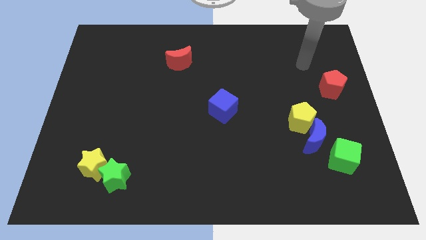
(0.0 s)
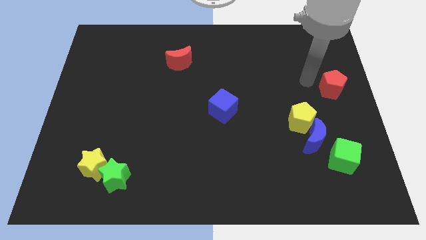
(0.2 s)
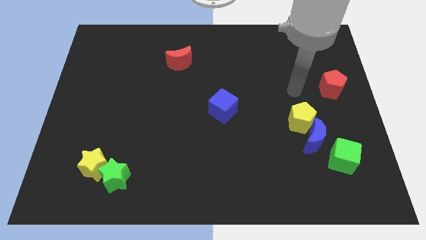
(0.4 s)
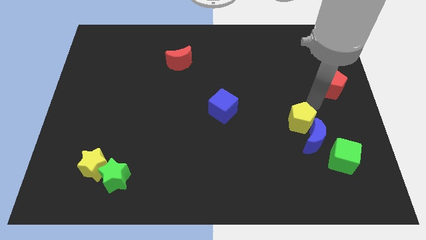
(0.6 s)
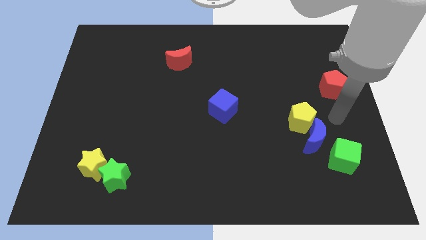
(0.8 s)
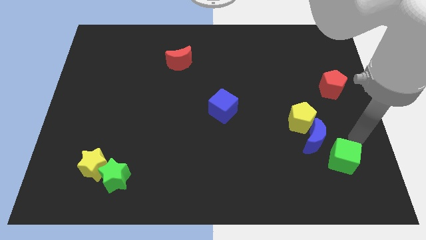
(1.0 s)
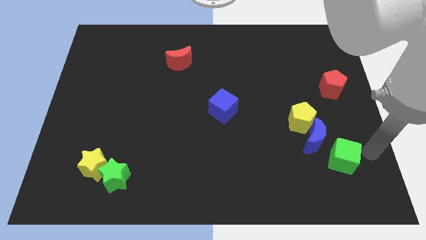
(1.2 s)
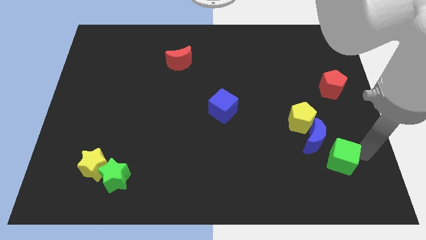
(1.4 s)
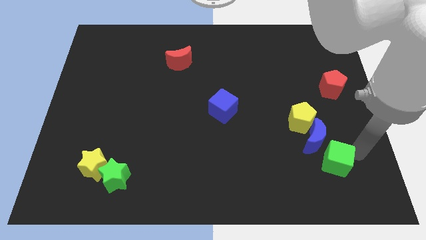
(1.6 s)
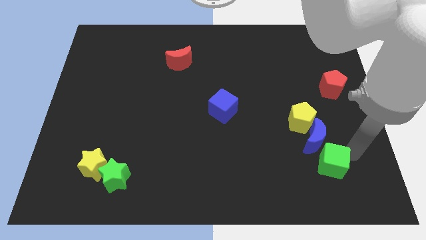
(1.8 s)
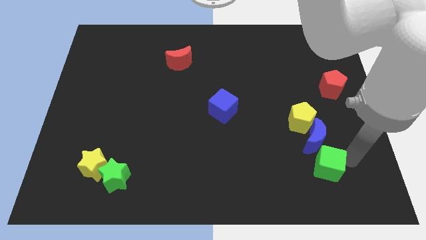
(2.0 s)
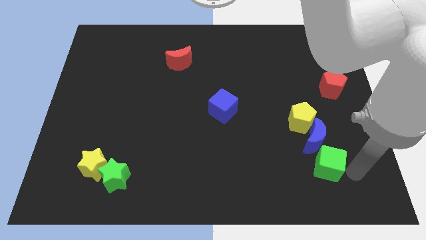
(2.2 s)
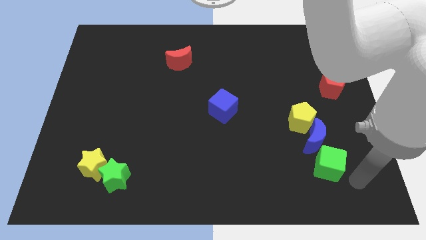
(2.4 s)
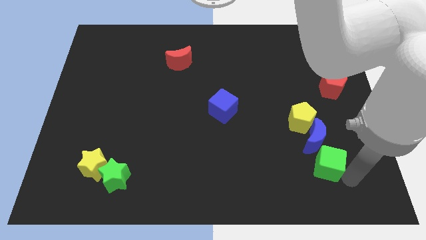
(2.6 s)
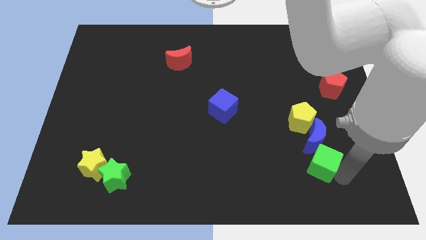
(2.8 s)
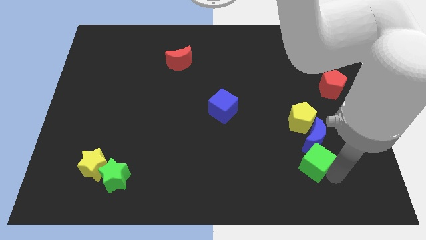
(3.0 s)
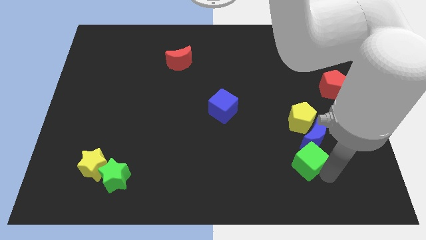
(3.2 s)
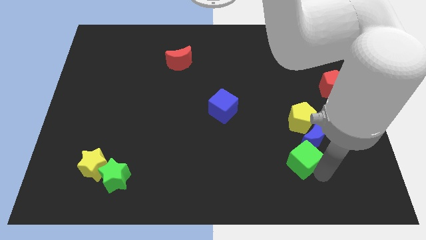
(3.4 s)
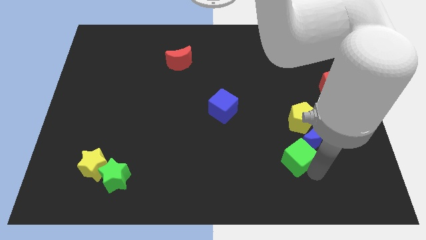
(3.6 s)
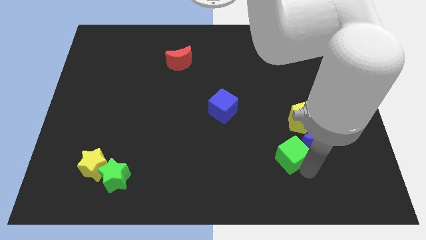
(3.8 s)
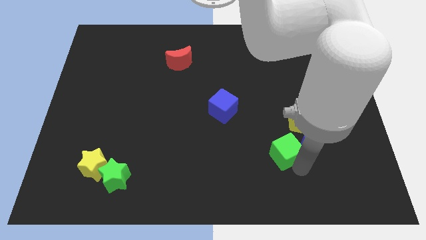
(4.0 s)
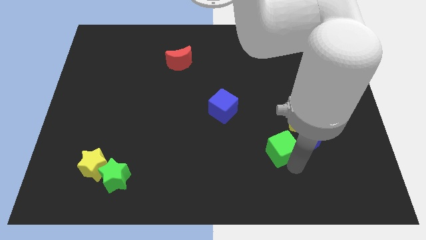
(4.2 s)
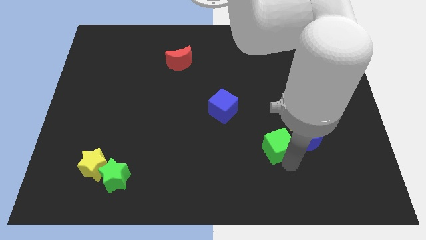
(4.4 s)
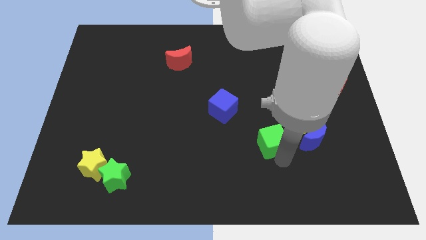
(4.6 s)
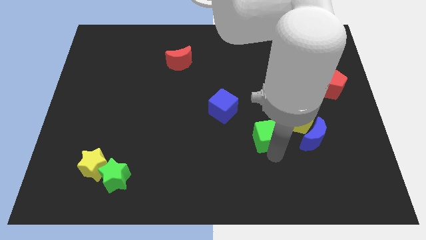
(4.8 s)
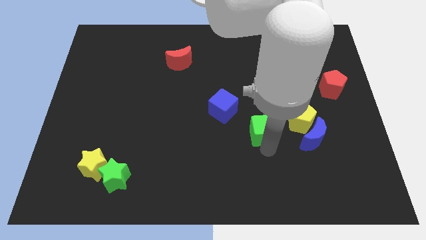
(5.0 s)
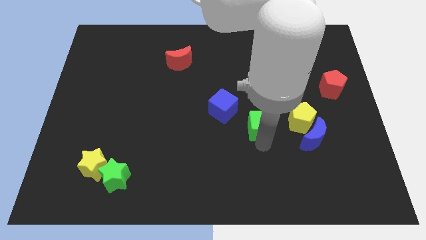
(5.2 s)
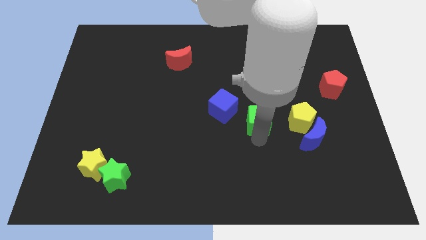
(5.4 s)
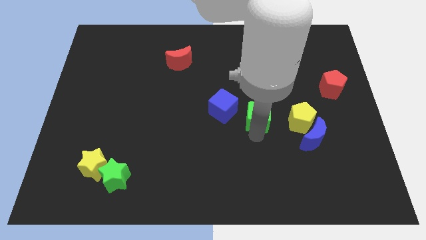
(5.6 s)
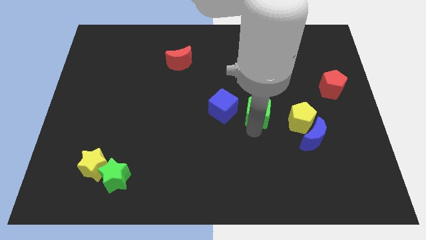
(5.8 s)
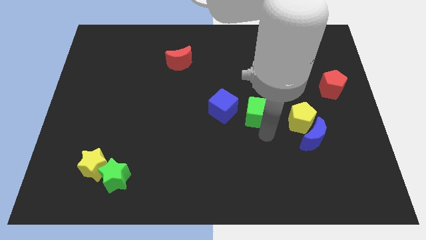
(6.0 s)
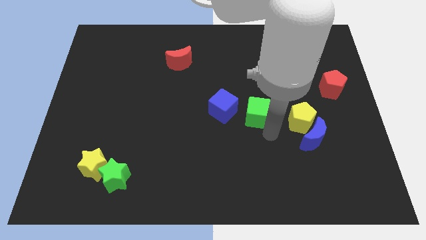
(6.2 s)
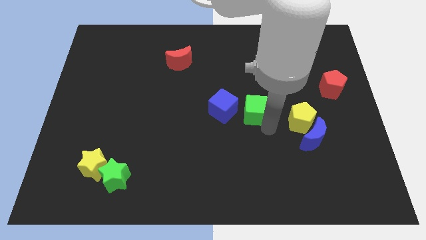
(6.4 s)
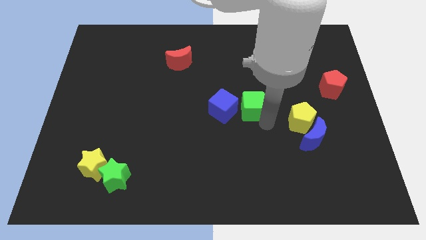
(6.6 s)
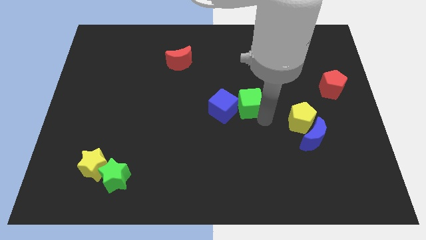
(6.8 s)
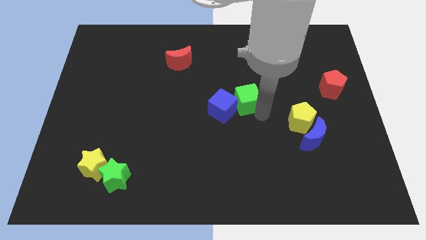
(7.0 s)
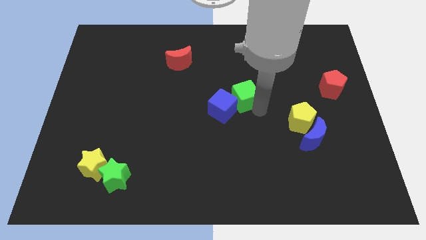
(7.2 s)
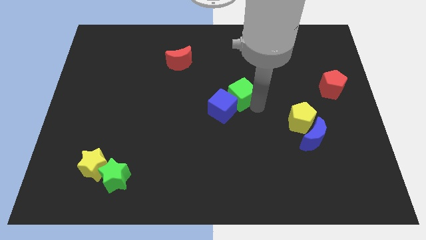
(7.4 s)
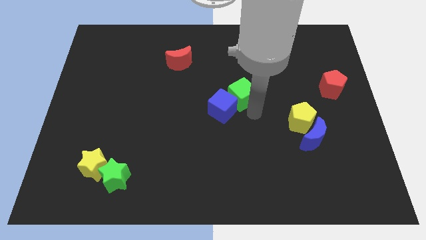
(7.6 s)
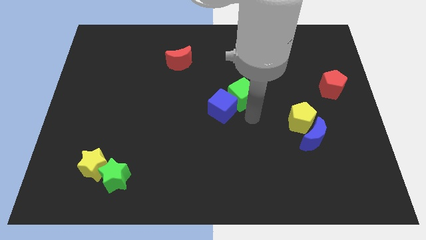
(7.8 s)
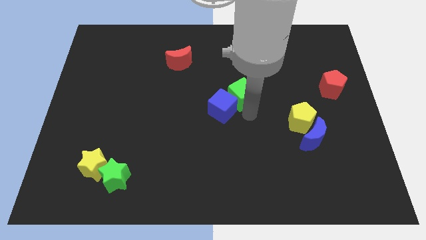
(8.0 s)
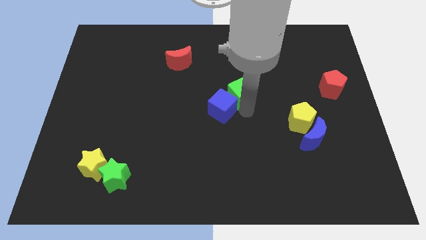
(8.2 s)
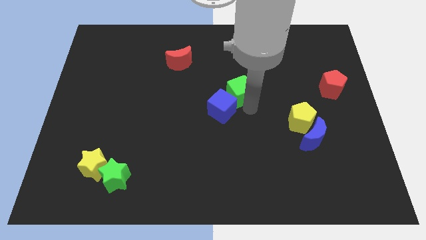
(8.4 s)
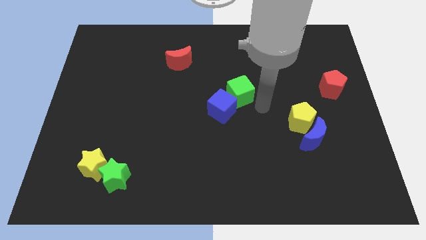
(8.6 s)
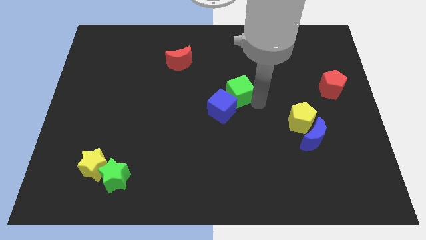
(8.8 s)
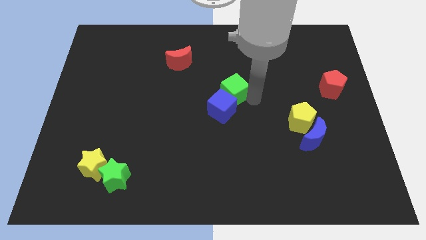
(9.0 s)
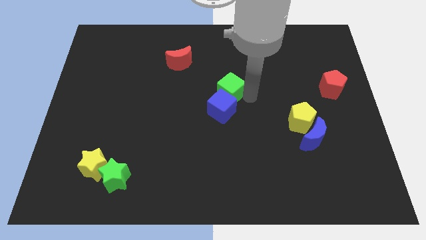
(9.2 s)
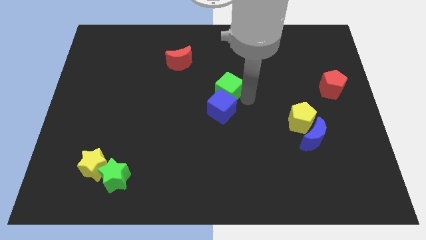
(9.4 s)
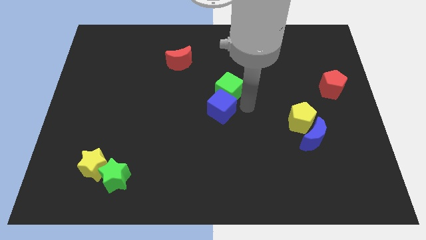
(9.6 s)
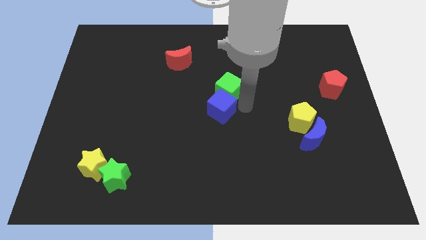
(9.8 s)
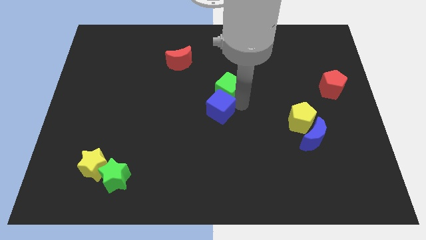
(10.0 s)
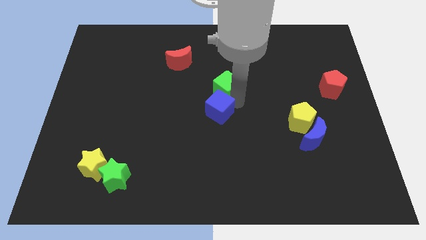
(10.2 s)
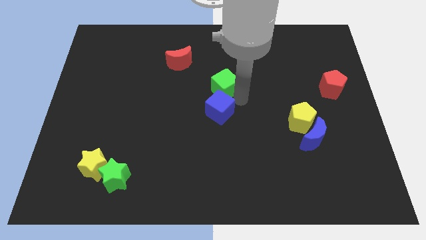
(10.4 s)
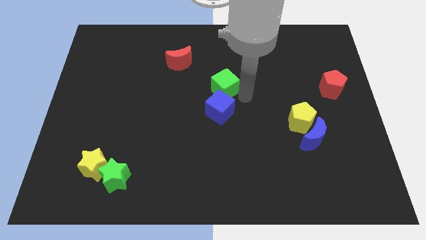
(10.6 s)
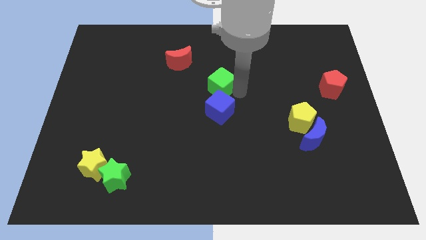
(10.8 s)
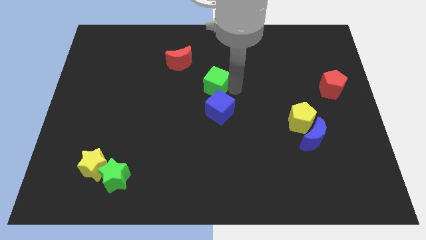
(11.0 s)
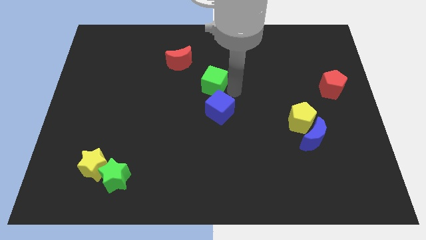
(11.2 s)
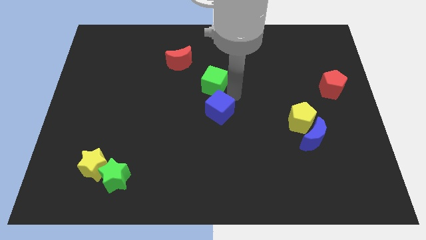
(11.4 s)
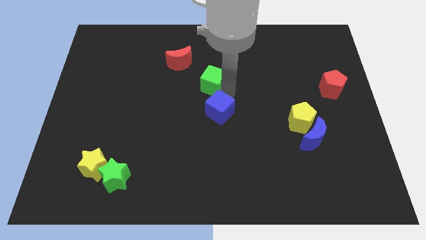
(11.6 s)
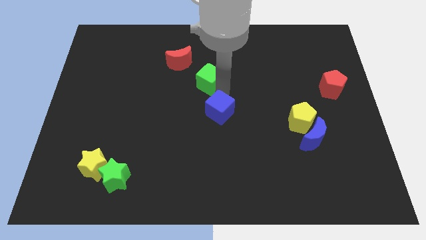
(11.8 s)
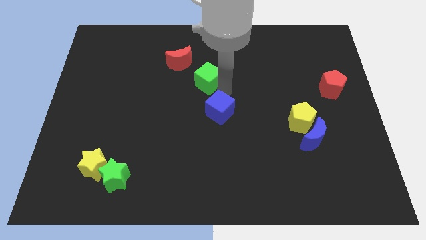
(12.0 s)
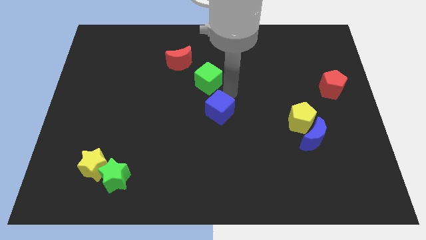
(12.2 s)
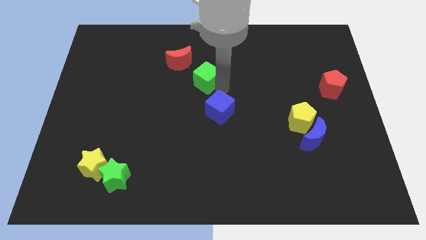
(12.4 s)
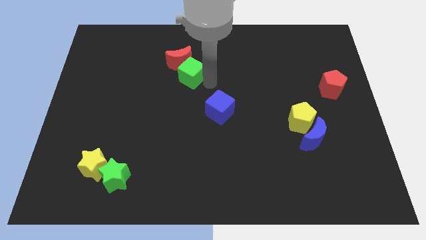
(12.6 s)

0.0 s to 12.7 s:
move the green cube to the red moon

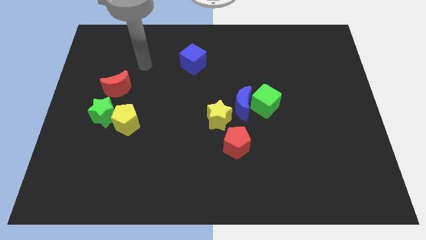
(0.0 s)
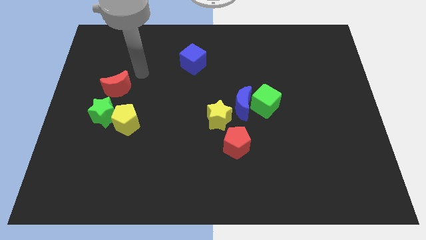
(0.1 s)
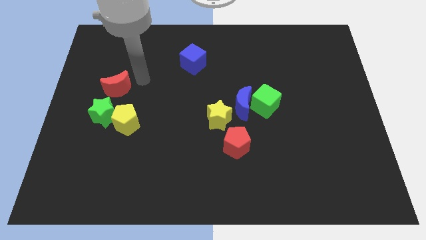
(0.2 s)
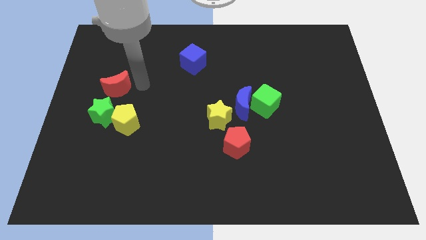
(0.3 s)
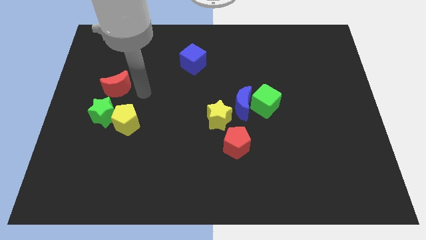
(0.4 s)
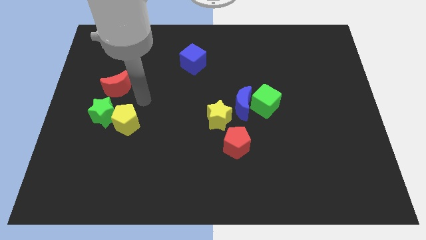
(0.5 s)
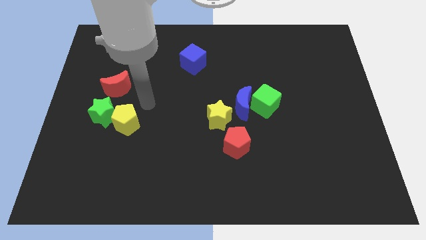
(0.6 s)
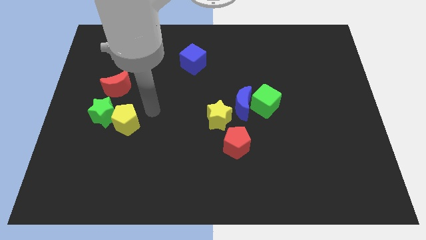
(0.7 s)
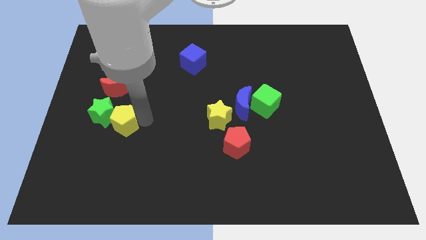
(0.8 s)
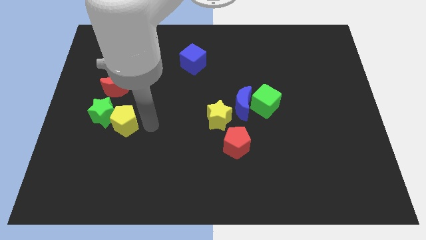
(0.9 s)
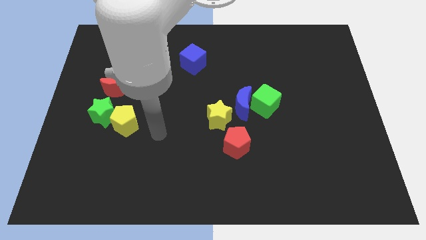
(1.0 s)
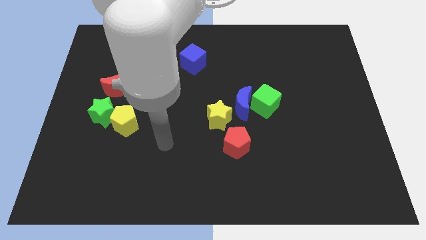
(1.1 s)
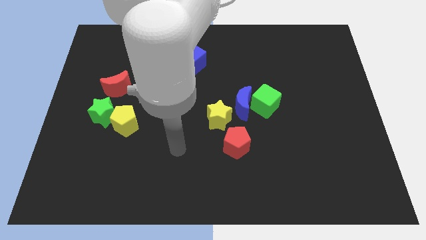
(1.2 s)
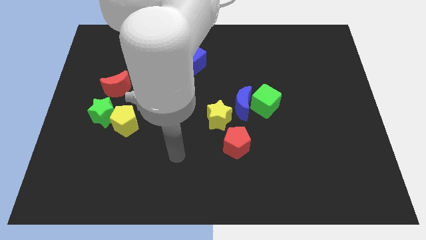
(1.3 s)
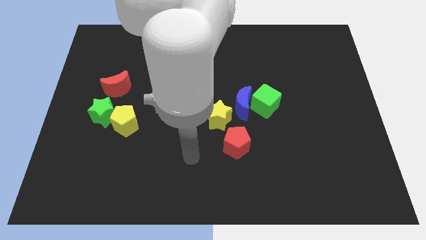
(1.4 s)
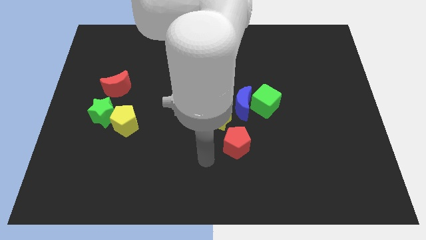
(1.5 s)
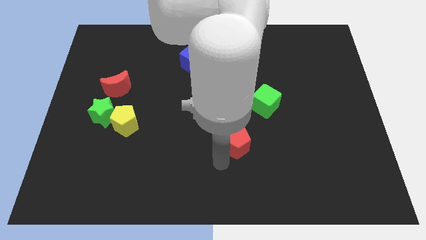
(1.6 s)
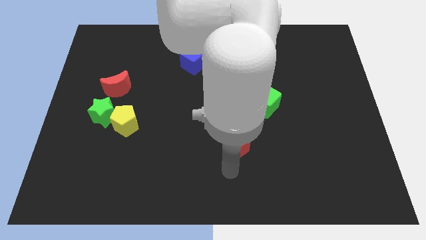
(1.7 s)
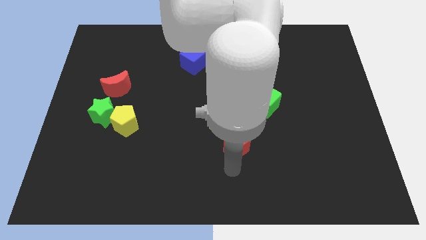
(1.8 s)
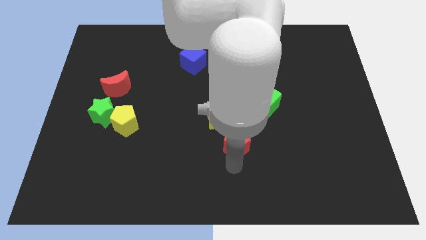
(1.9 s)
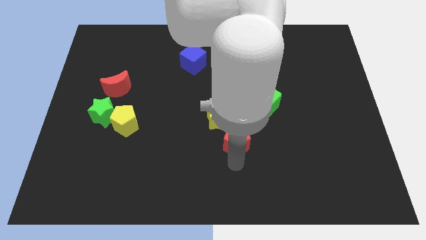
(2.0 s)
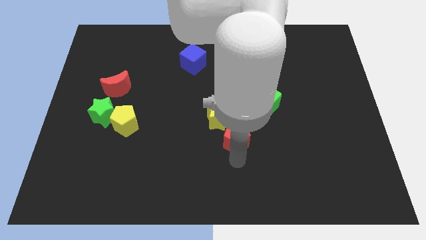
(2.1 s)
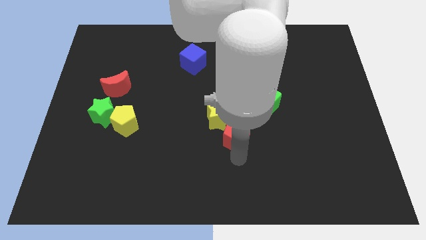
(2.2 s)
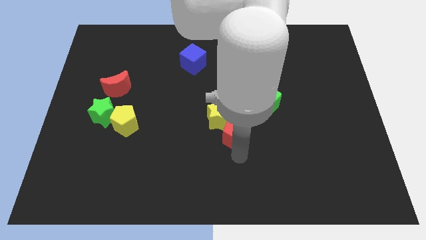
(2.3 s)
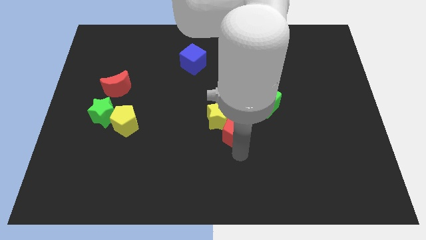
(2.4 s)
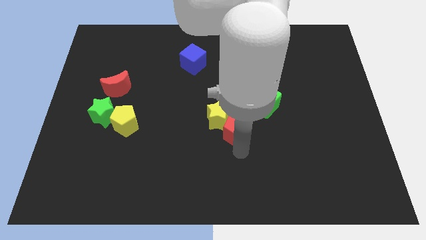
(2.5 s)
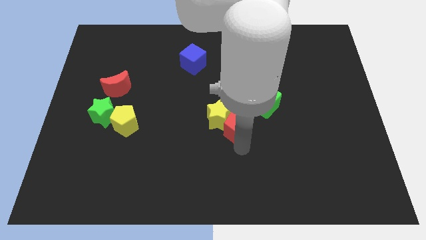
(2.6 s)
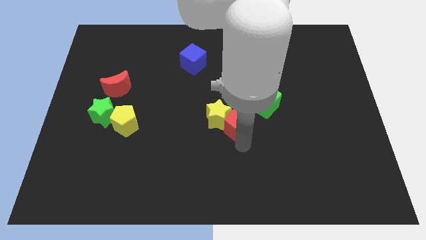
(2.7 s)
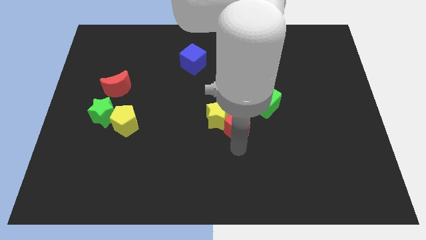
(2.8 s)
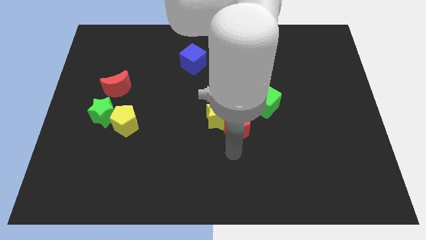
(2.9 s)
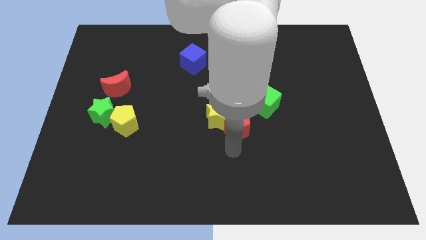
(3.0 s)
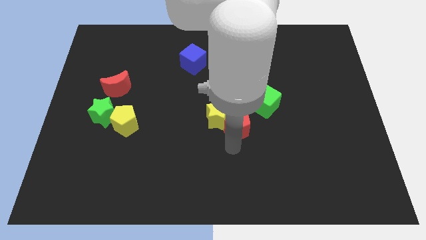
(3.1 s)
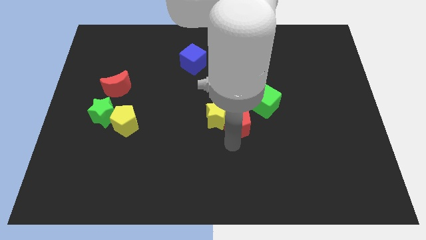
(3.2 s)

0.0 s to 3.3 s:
move the red pentagon next to the blue moon
